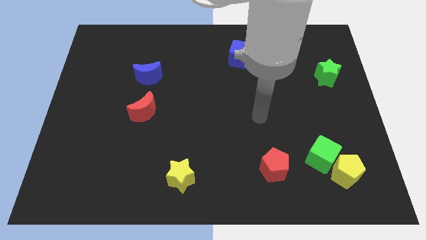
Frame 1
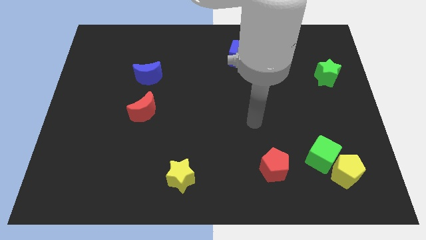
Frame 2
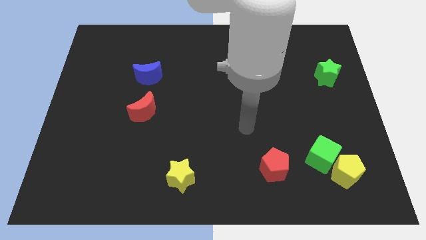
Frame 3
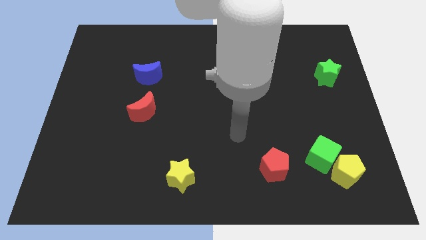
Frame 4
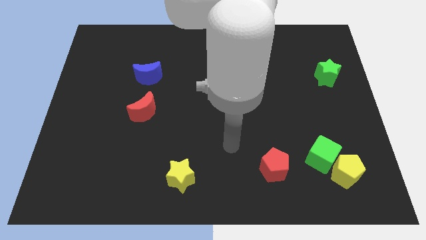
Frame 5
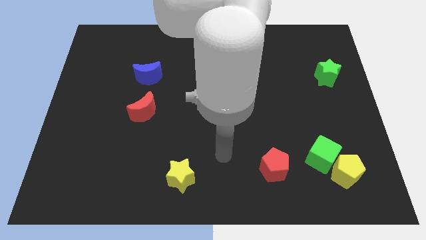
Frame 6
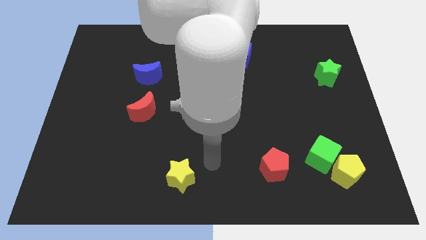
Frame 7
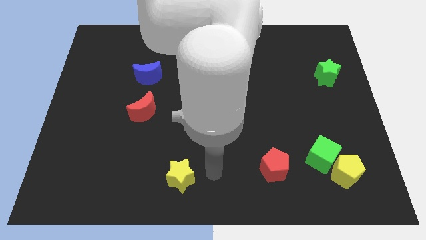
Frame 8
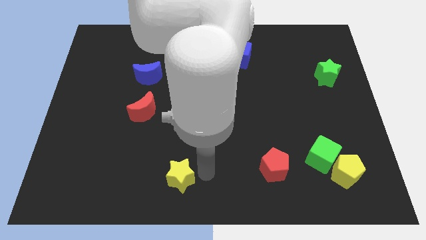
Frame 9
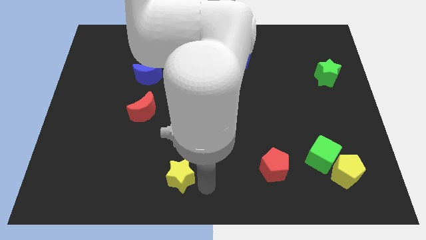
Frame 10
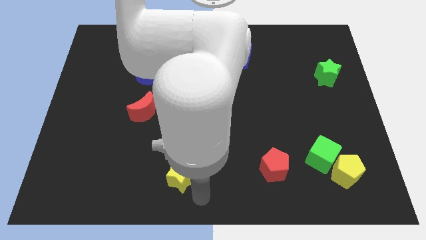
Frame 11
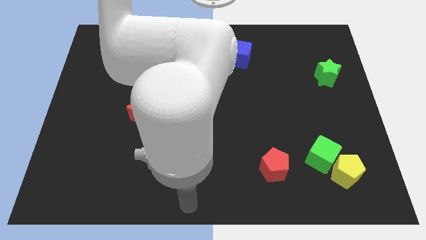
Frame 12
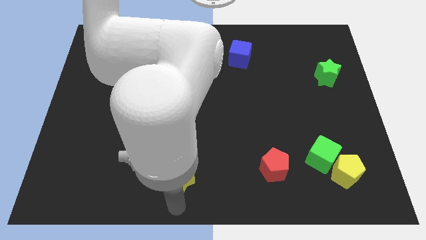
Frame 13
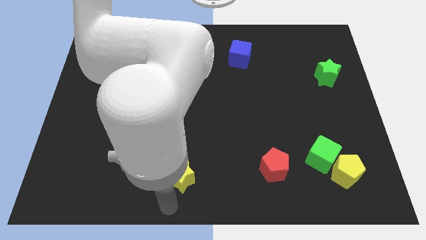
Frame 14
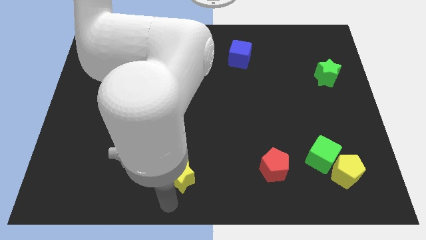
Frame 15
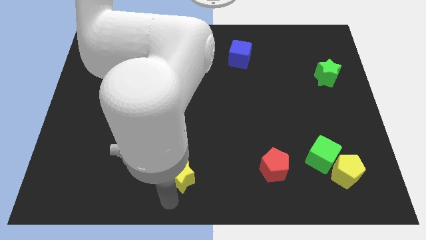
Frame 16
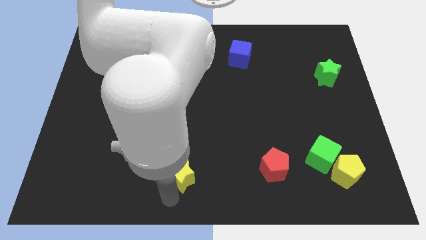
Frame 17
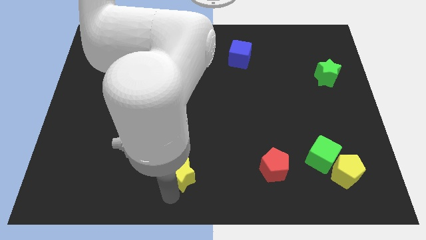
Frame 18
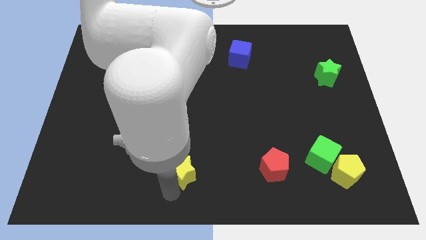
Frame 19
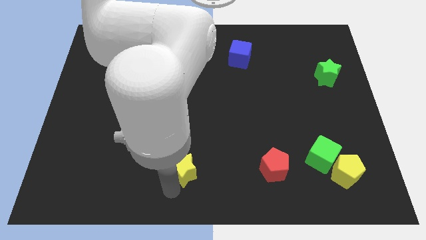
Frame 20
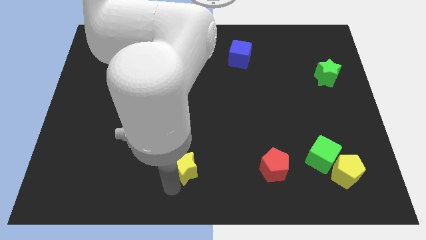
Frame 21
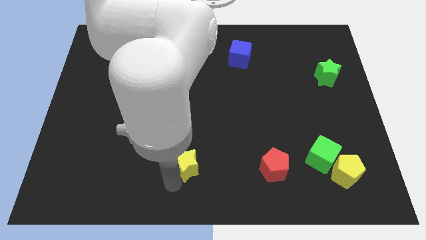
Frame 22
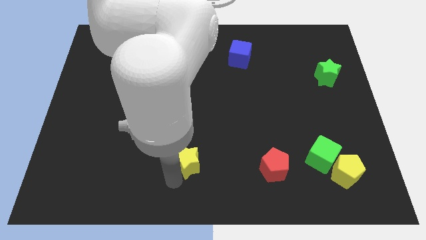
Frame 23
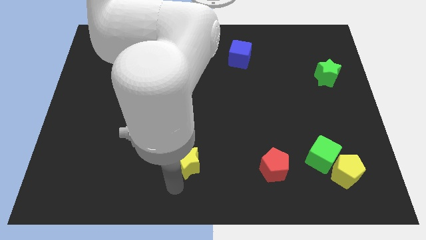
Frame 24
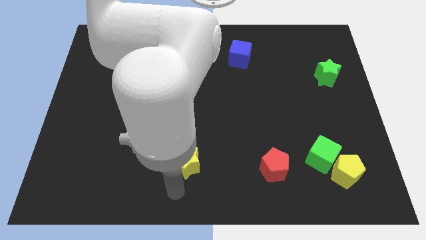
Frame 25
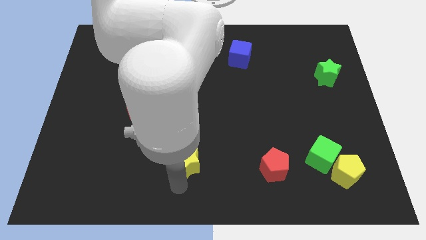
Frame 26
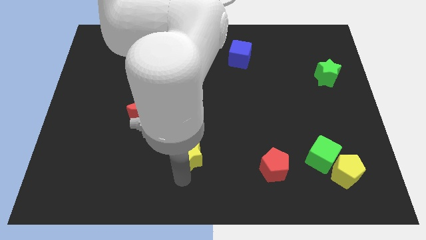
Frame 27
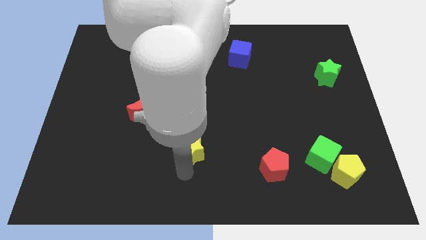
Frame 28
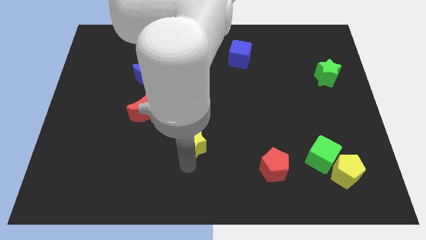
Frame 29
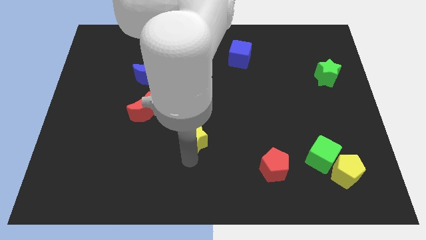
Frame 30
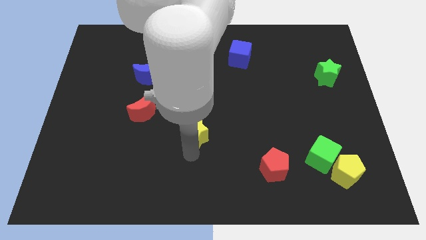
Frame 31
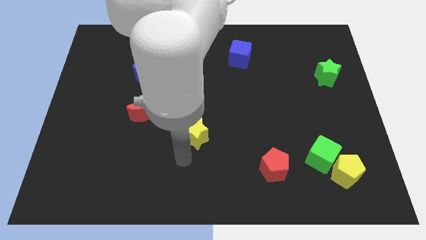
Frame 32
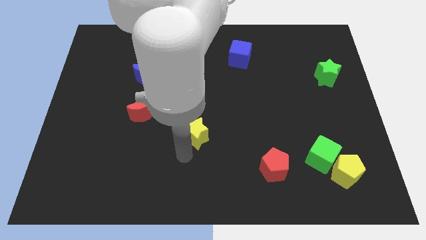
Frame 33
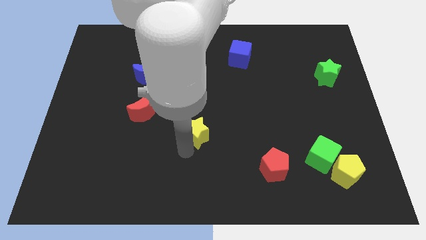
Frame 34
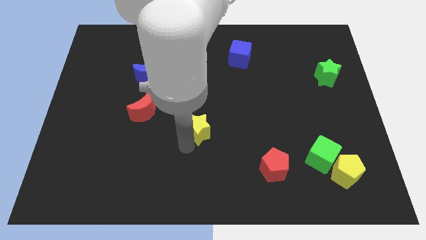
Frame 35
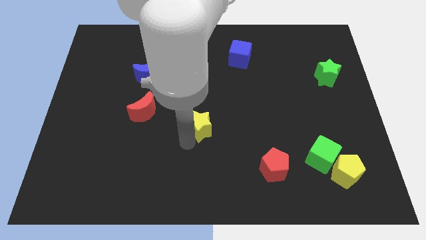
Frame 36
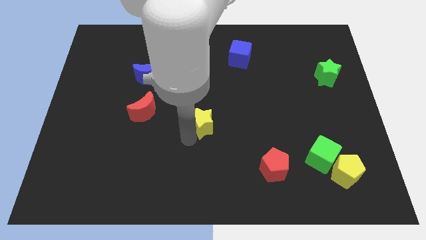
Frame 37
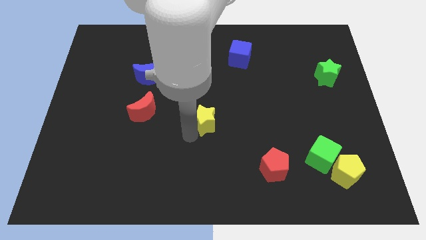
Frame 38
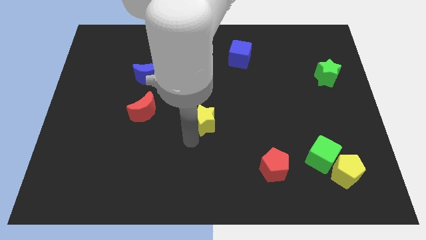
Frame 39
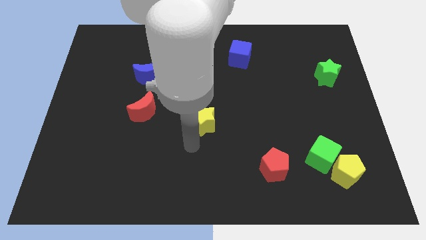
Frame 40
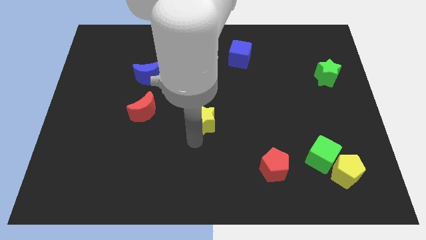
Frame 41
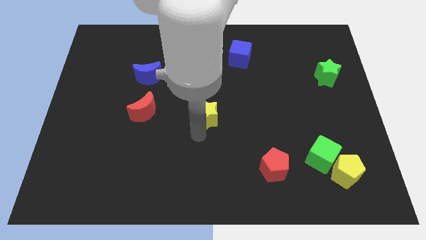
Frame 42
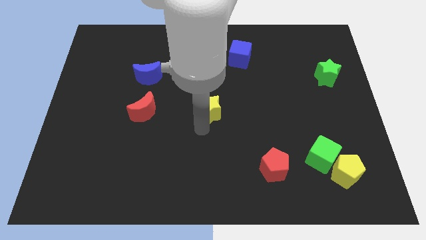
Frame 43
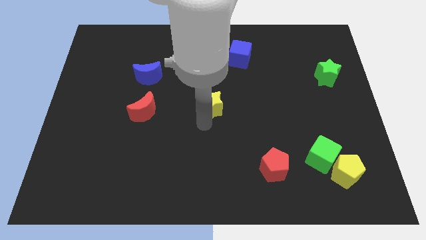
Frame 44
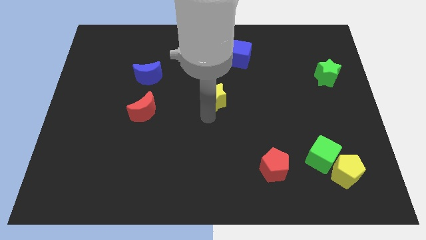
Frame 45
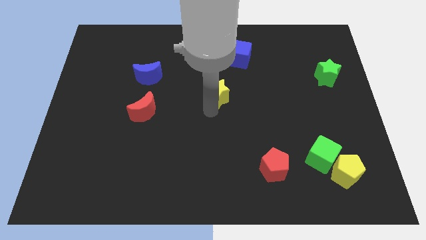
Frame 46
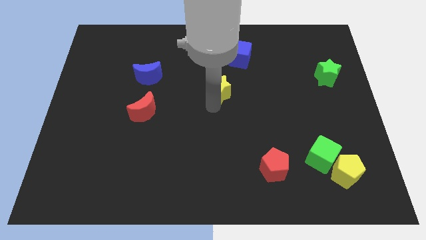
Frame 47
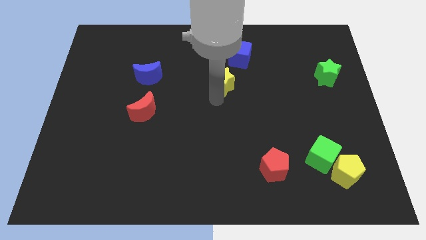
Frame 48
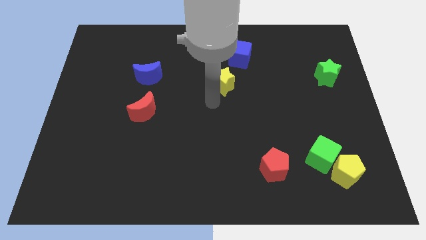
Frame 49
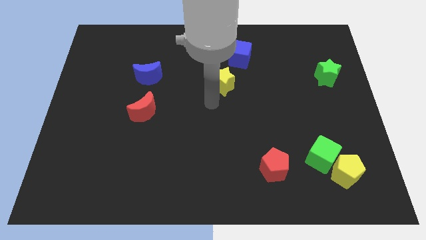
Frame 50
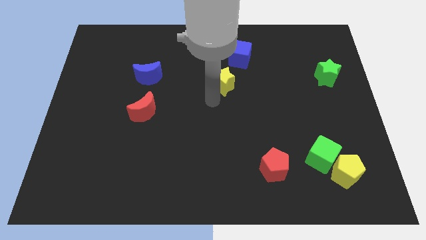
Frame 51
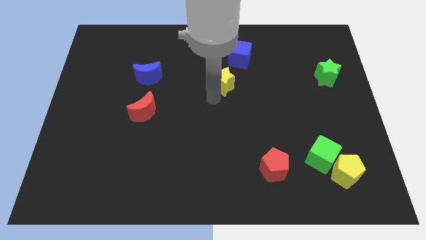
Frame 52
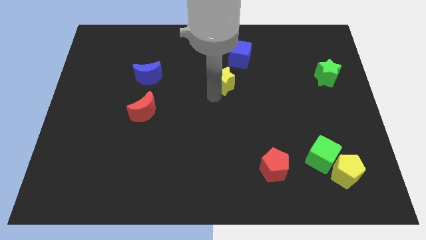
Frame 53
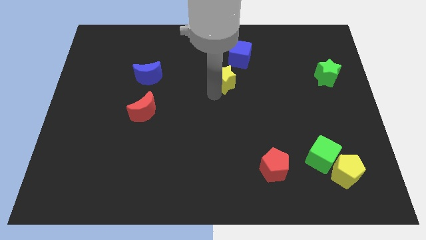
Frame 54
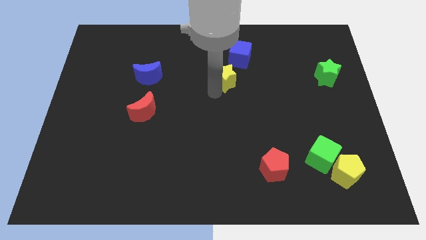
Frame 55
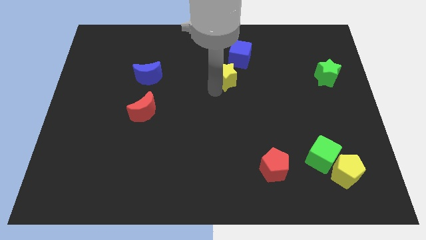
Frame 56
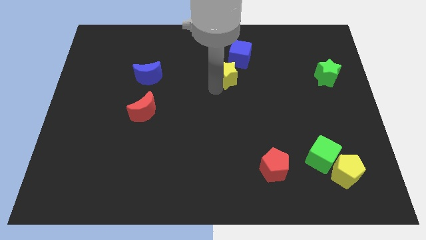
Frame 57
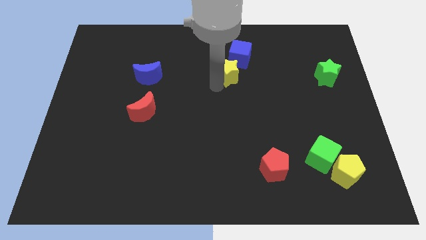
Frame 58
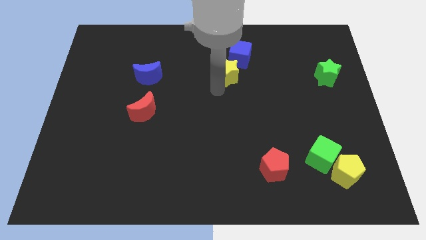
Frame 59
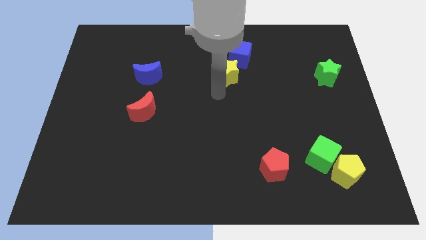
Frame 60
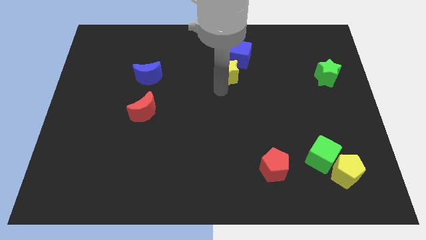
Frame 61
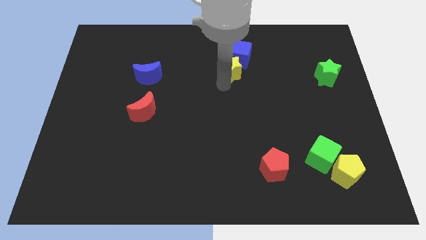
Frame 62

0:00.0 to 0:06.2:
push the yellow star next to the blue cube

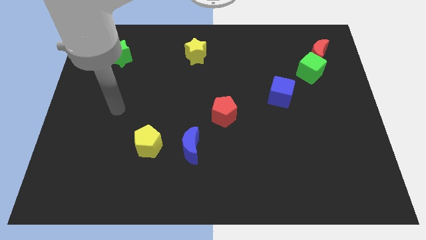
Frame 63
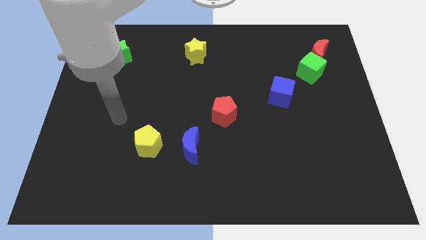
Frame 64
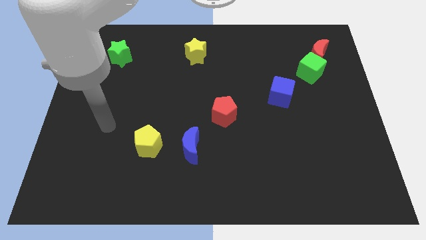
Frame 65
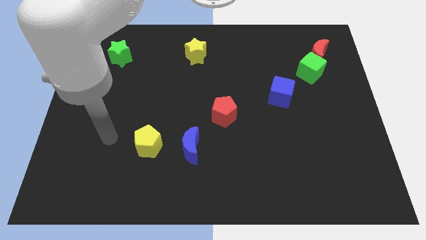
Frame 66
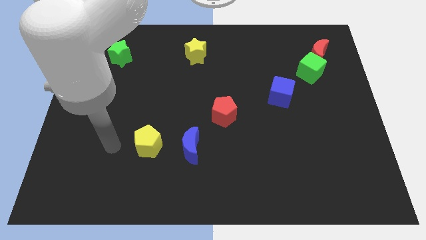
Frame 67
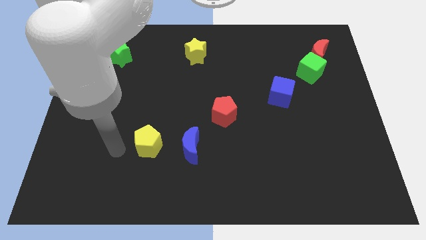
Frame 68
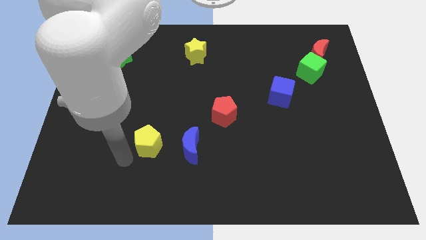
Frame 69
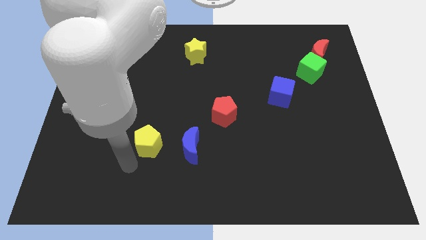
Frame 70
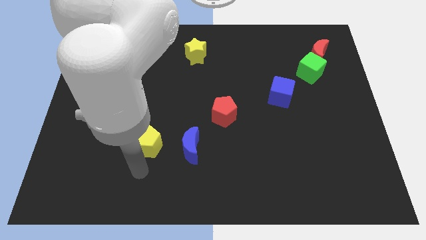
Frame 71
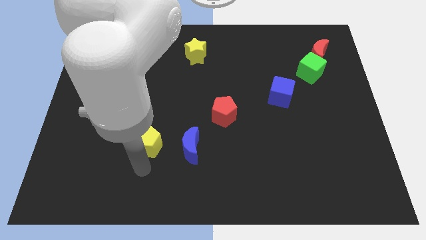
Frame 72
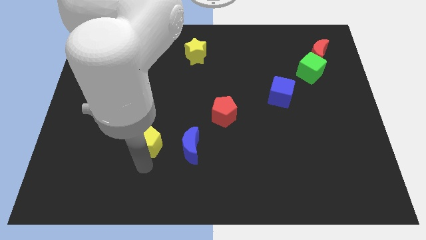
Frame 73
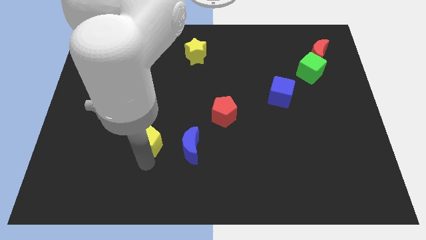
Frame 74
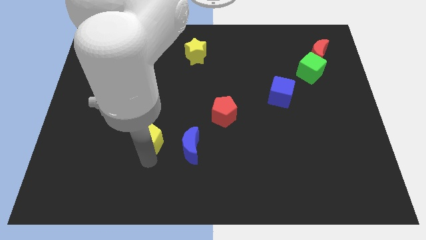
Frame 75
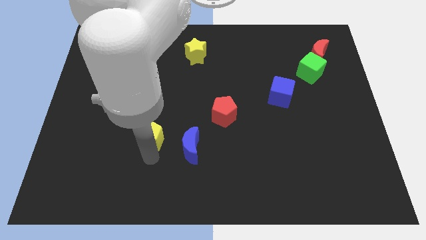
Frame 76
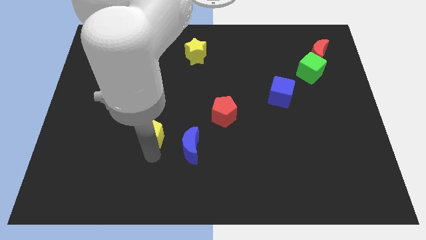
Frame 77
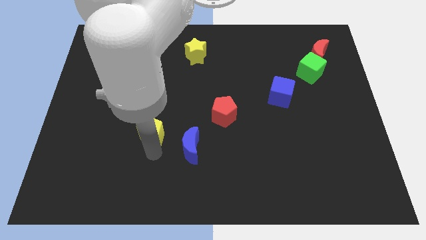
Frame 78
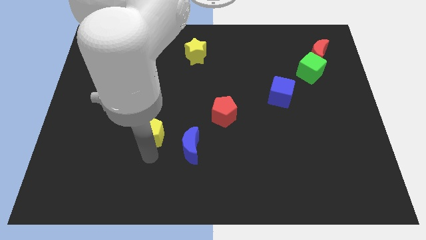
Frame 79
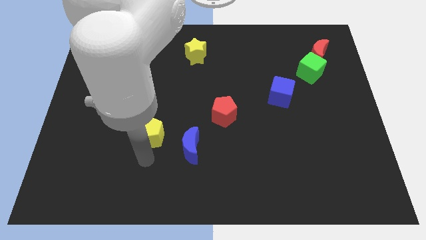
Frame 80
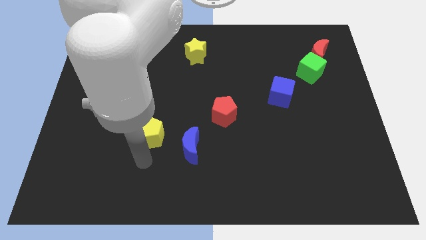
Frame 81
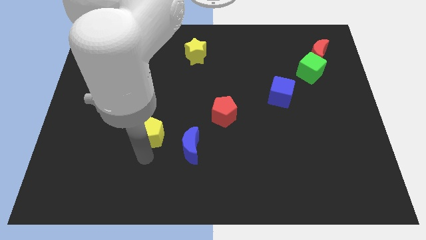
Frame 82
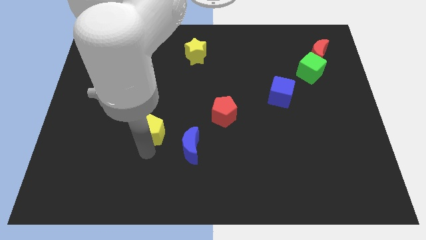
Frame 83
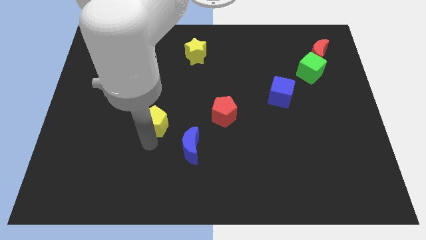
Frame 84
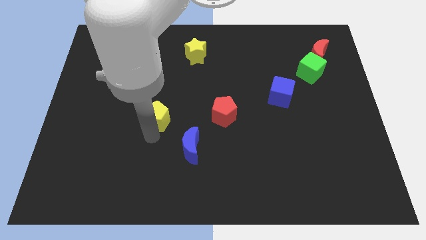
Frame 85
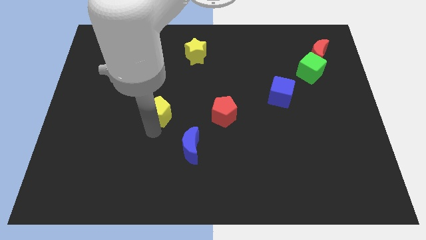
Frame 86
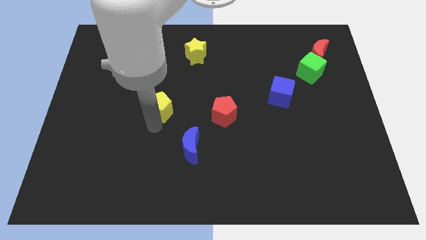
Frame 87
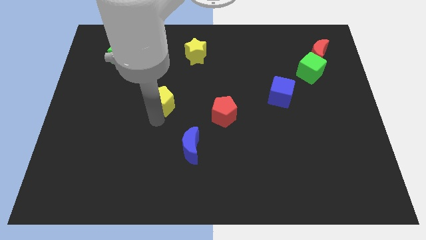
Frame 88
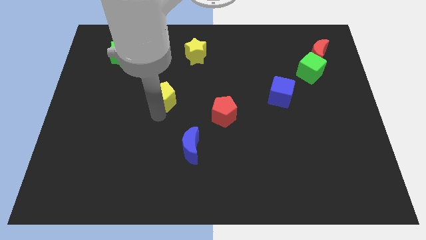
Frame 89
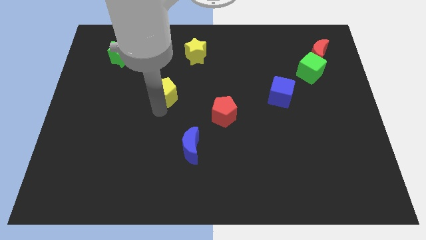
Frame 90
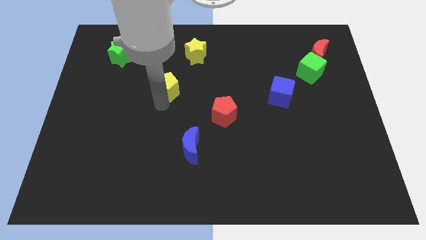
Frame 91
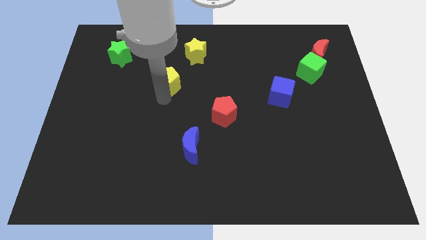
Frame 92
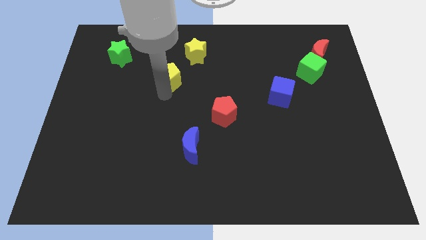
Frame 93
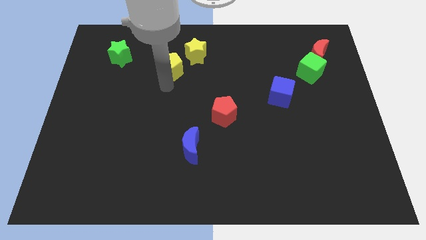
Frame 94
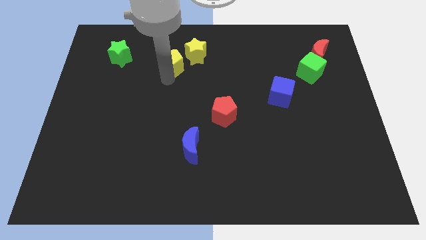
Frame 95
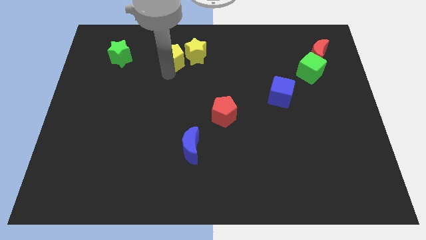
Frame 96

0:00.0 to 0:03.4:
put the yellow pentagon towards the yellow star
